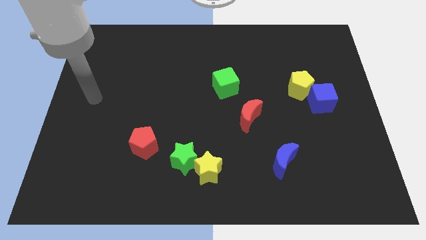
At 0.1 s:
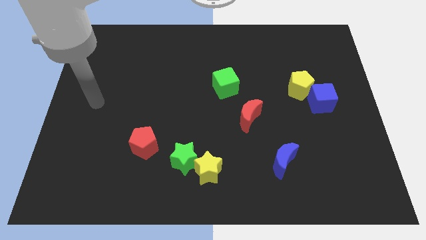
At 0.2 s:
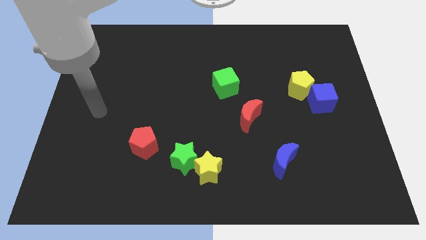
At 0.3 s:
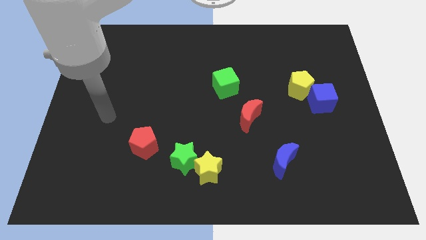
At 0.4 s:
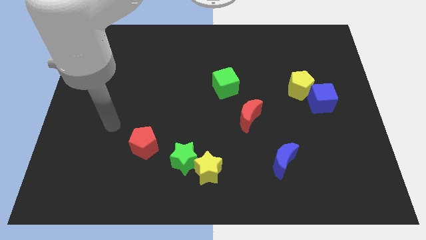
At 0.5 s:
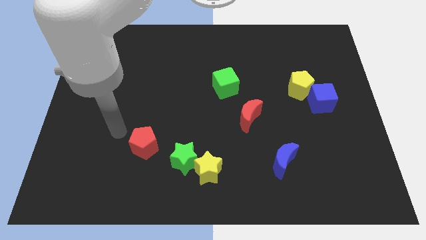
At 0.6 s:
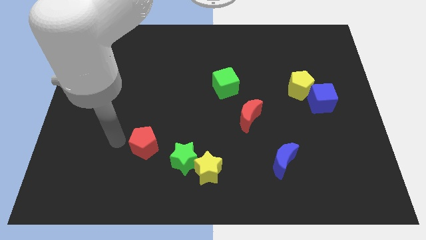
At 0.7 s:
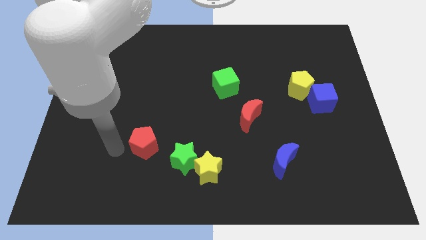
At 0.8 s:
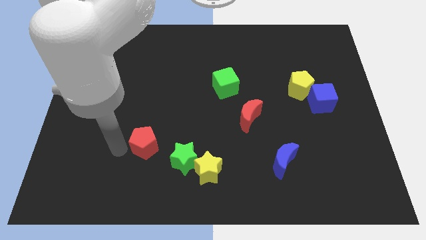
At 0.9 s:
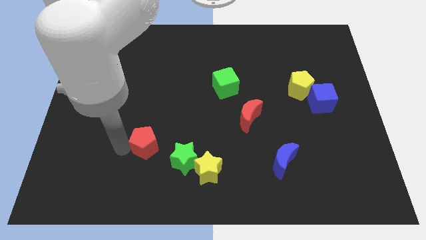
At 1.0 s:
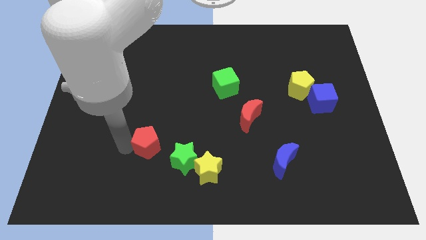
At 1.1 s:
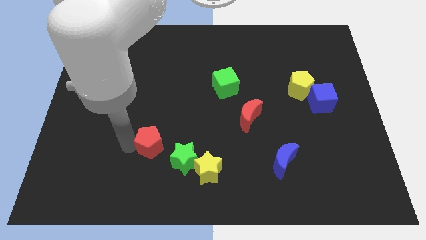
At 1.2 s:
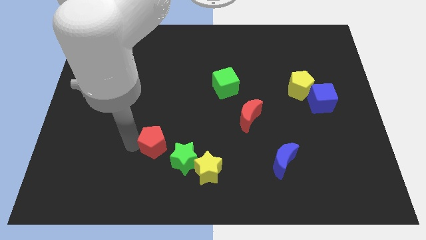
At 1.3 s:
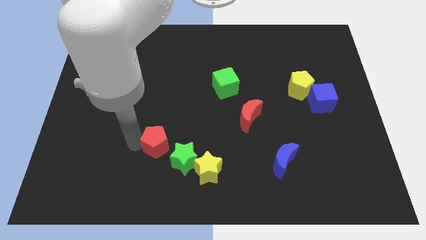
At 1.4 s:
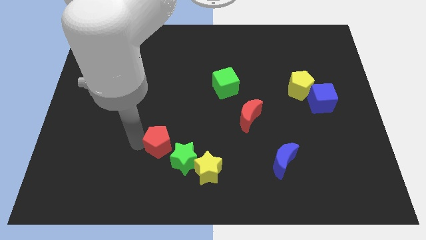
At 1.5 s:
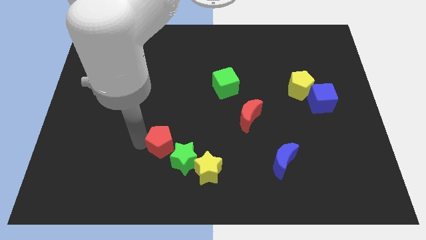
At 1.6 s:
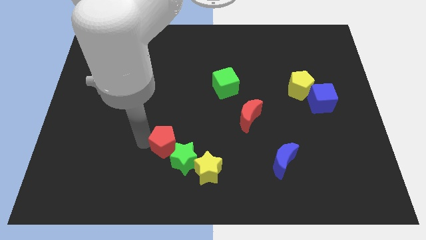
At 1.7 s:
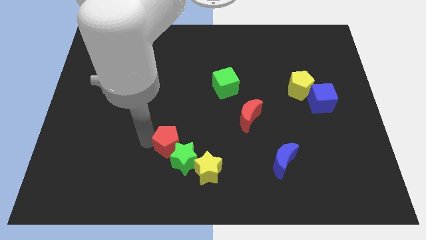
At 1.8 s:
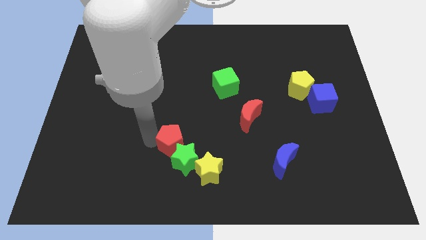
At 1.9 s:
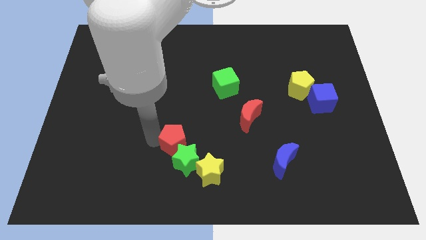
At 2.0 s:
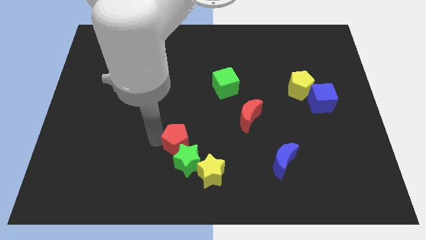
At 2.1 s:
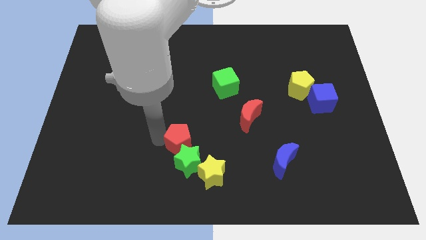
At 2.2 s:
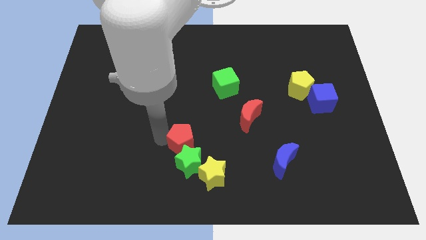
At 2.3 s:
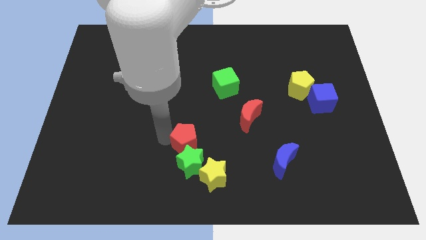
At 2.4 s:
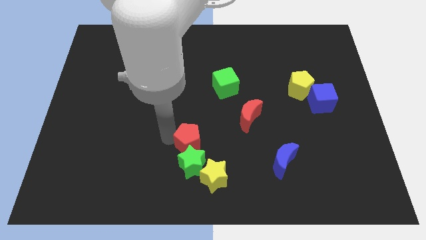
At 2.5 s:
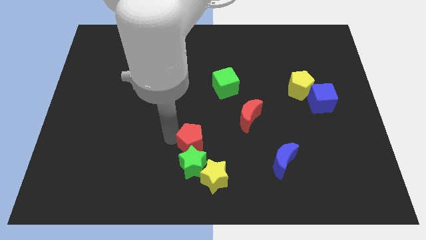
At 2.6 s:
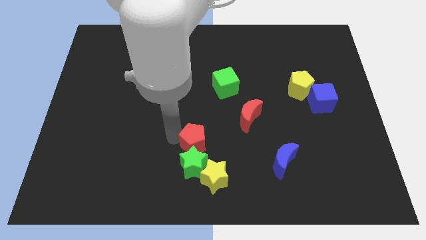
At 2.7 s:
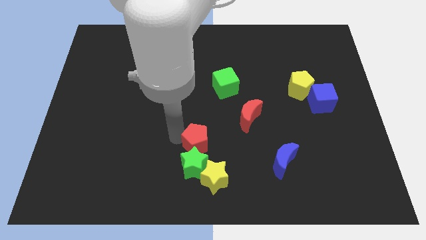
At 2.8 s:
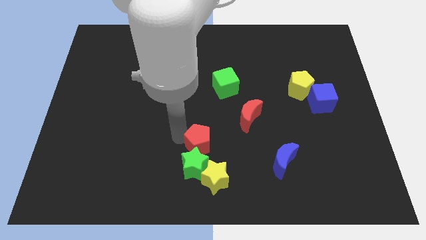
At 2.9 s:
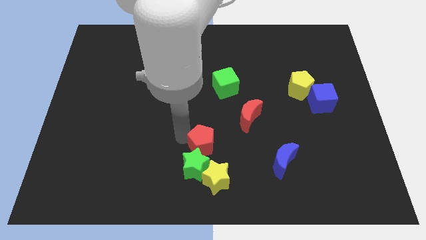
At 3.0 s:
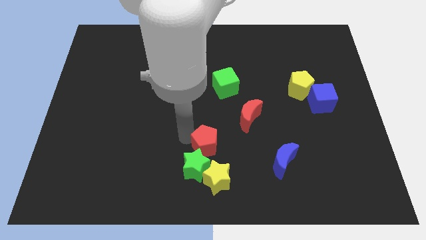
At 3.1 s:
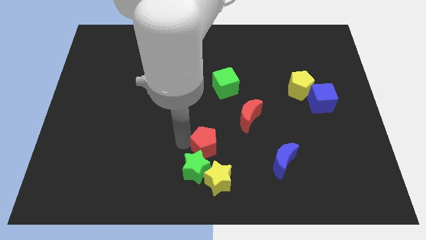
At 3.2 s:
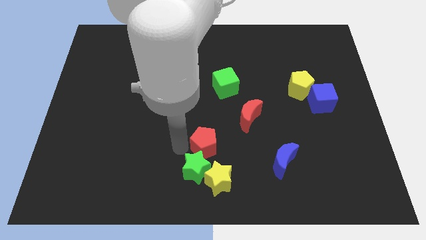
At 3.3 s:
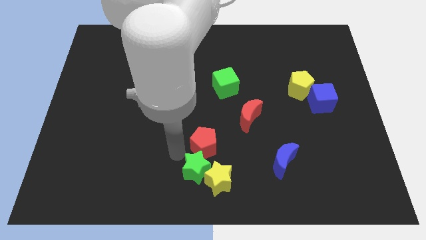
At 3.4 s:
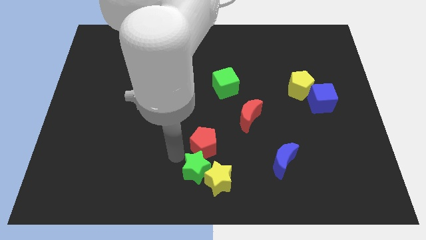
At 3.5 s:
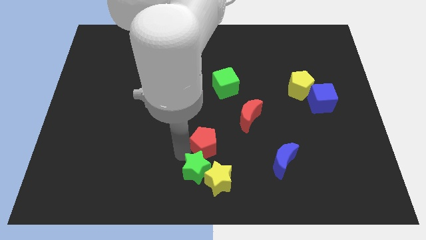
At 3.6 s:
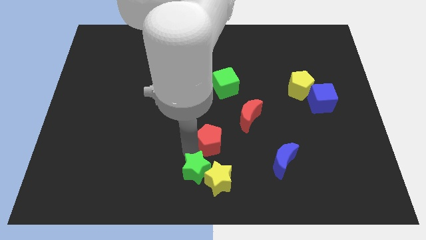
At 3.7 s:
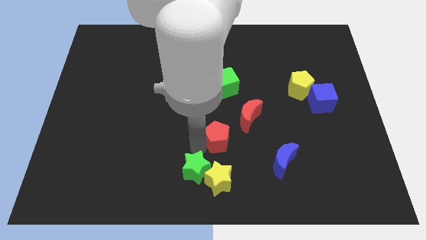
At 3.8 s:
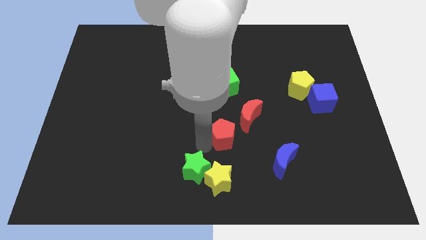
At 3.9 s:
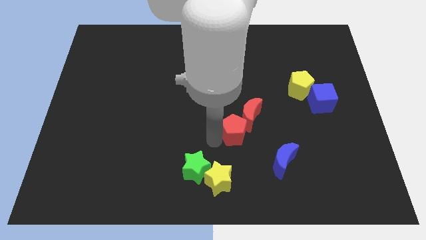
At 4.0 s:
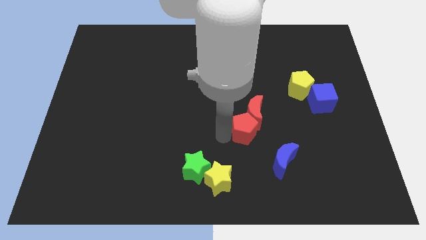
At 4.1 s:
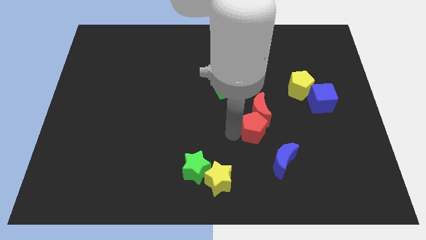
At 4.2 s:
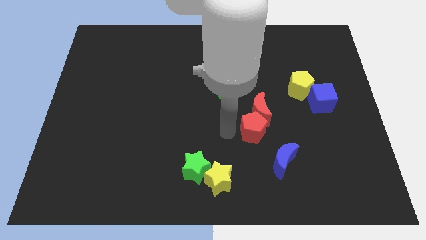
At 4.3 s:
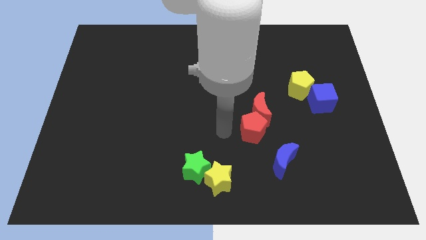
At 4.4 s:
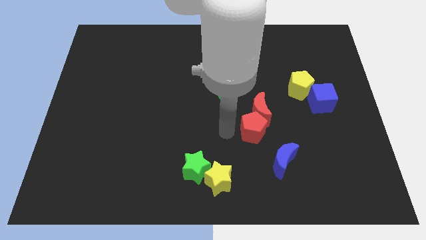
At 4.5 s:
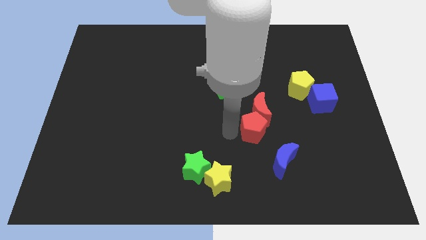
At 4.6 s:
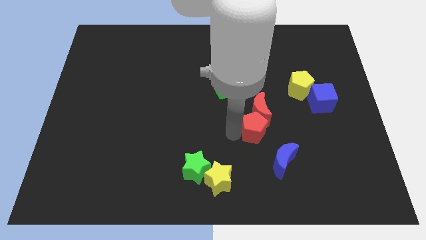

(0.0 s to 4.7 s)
put the red pentagon to the bottom right of the red moon

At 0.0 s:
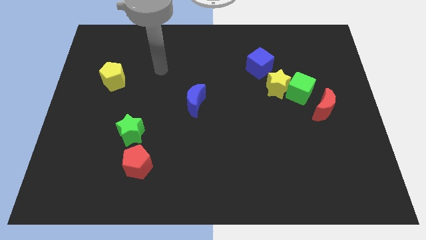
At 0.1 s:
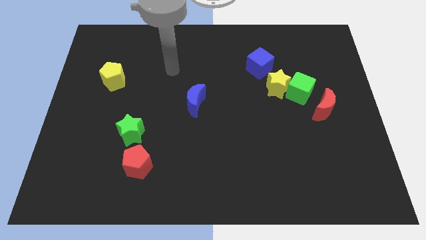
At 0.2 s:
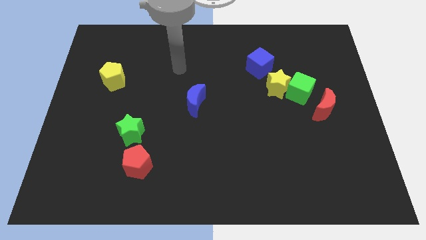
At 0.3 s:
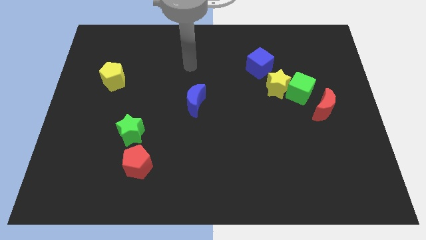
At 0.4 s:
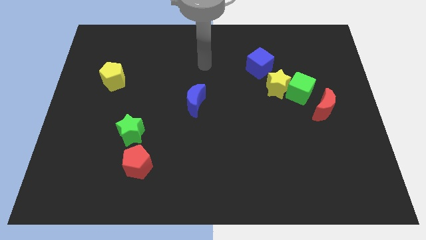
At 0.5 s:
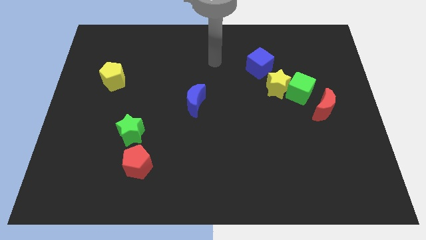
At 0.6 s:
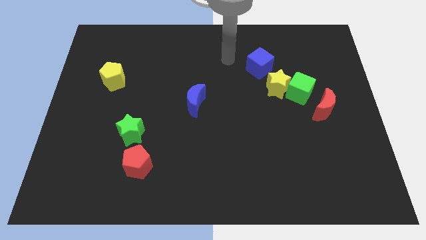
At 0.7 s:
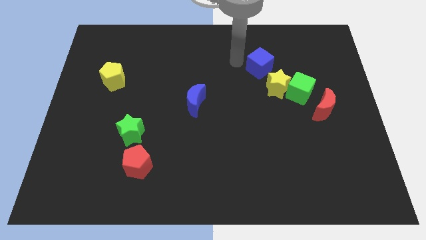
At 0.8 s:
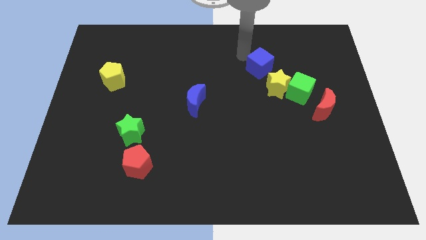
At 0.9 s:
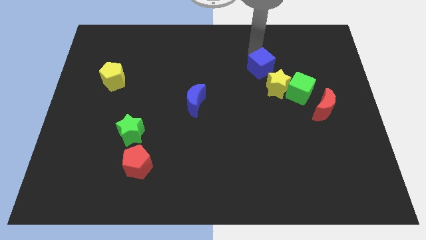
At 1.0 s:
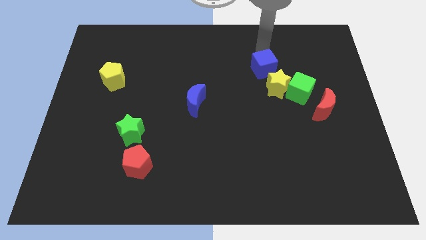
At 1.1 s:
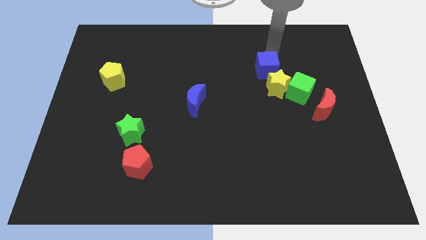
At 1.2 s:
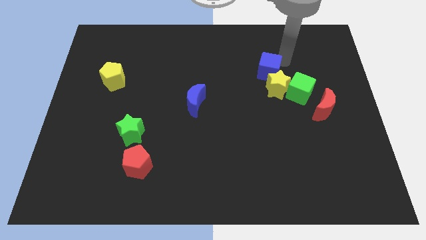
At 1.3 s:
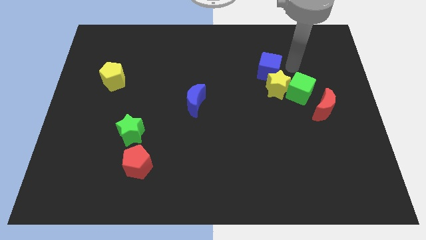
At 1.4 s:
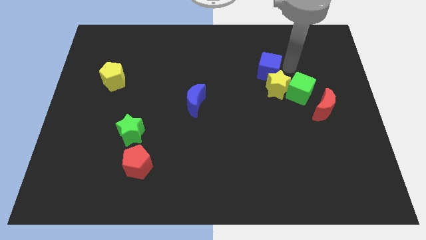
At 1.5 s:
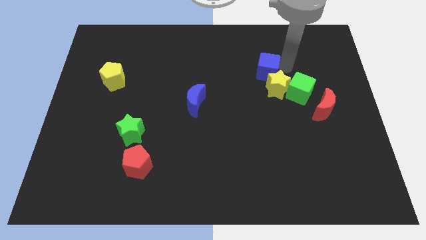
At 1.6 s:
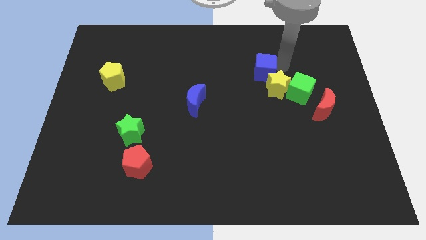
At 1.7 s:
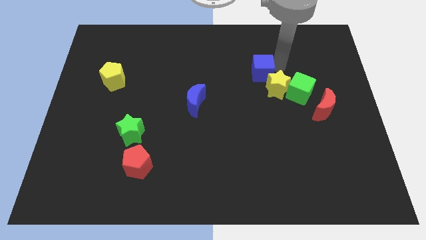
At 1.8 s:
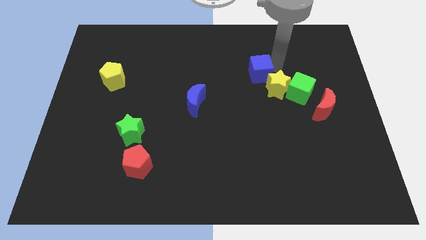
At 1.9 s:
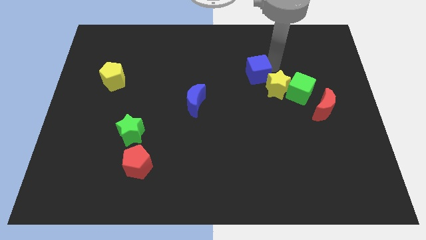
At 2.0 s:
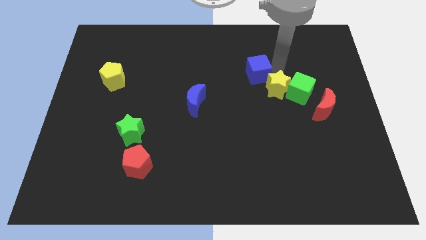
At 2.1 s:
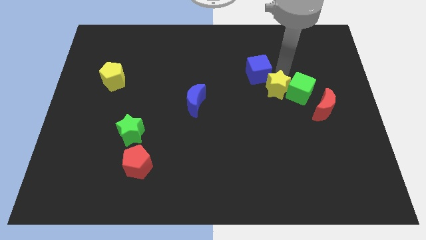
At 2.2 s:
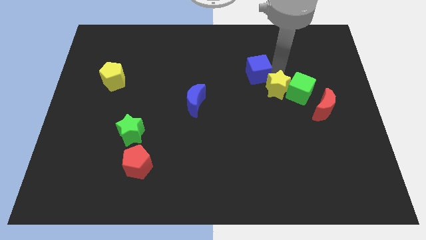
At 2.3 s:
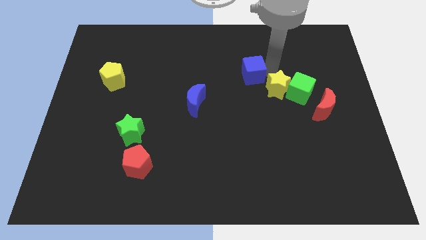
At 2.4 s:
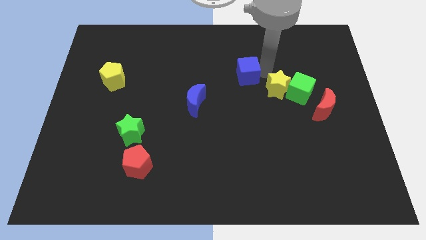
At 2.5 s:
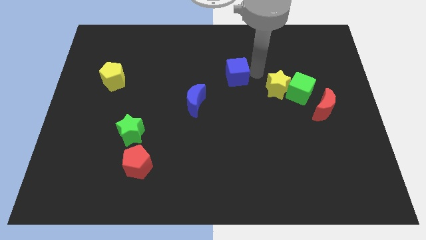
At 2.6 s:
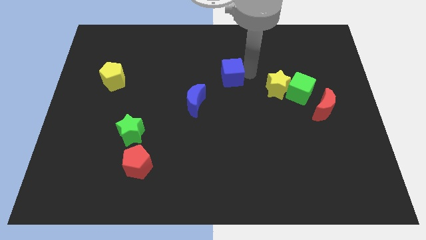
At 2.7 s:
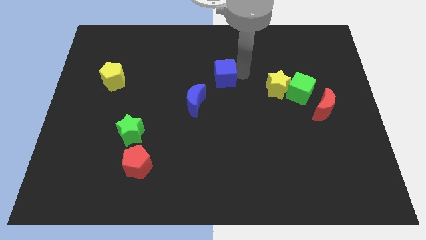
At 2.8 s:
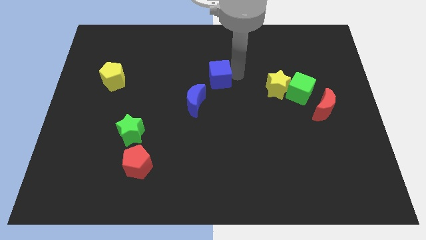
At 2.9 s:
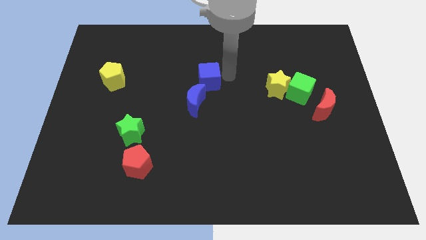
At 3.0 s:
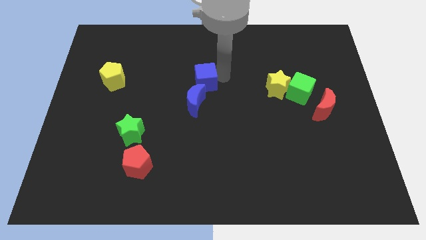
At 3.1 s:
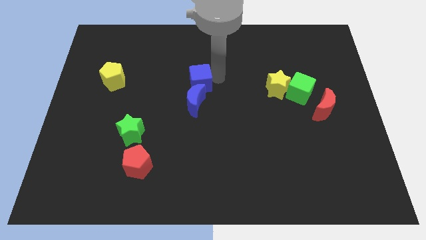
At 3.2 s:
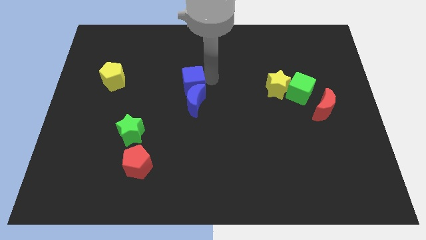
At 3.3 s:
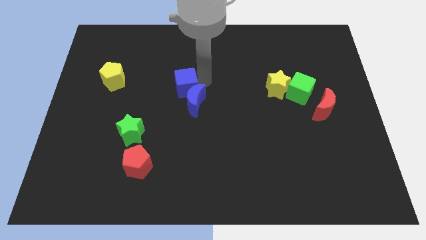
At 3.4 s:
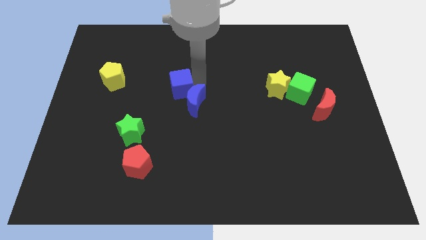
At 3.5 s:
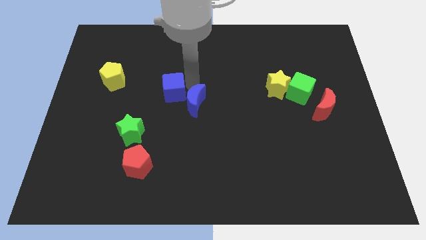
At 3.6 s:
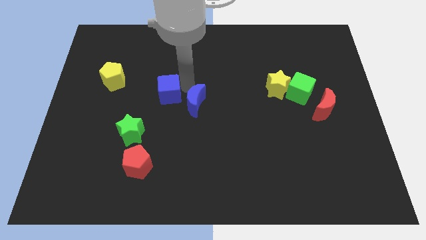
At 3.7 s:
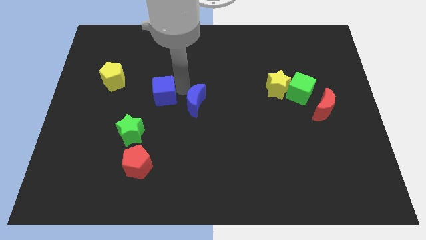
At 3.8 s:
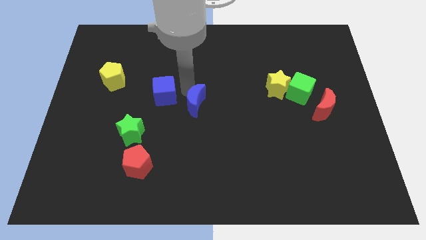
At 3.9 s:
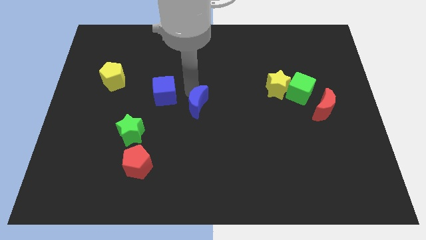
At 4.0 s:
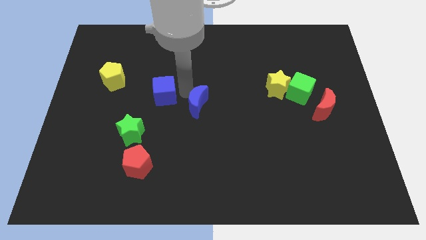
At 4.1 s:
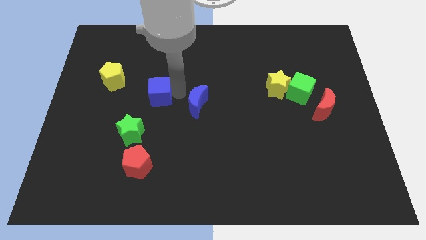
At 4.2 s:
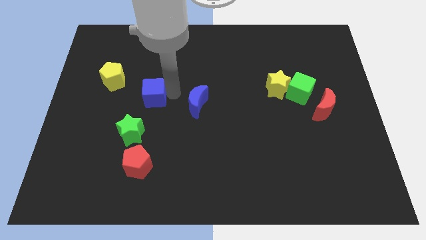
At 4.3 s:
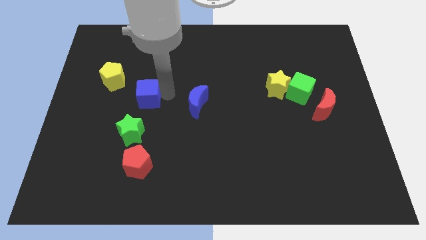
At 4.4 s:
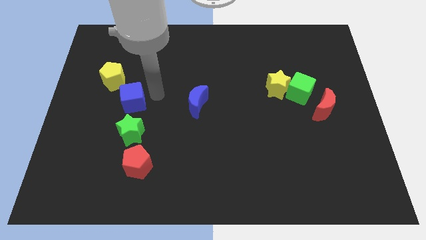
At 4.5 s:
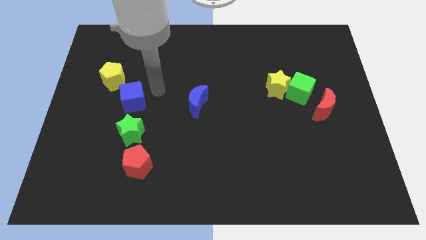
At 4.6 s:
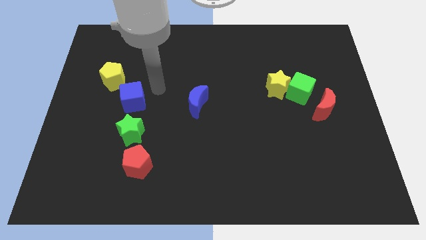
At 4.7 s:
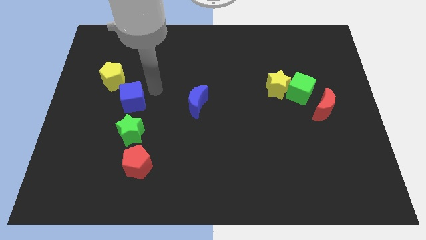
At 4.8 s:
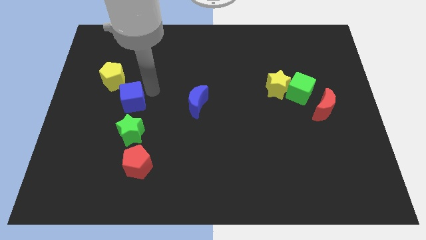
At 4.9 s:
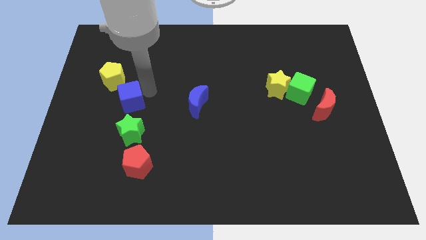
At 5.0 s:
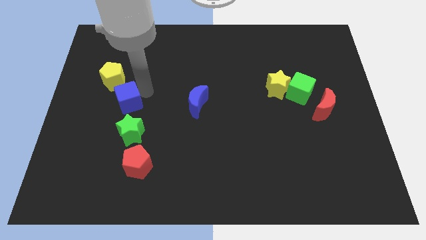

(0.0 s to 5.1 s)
move the blue cube below the yellow pentagon
